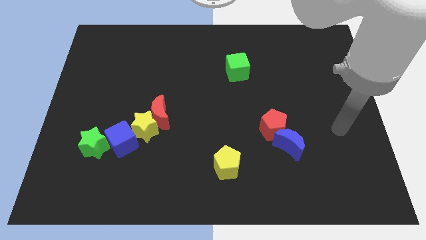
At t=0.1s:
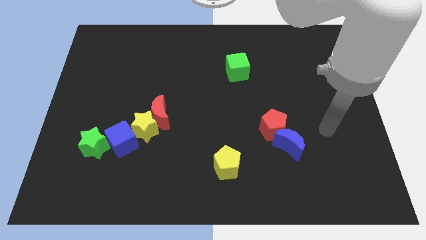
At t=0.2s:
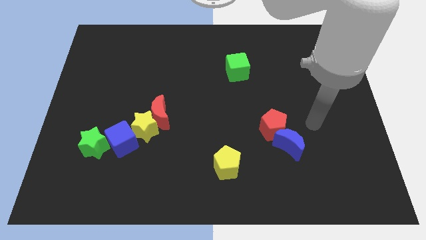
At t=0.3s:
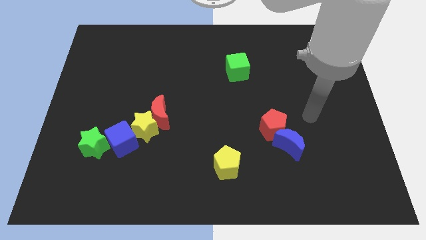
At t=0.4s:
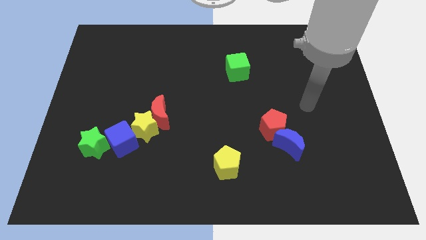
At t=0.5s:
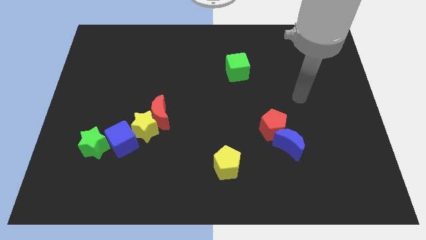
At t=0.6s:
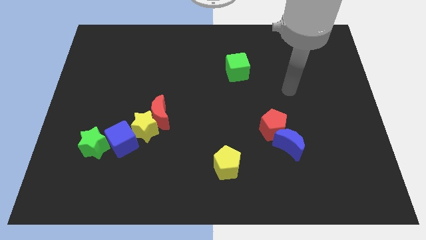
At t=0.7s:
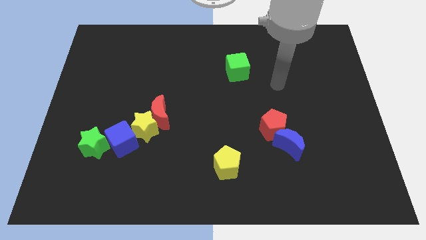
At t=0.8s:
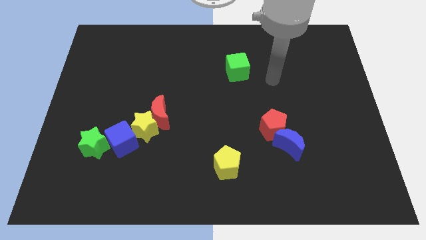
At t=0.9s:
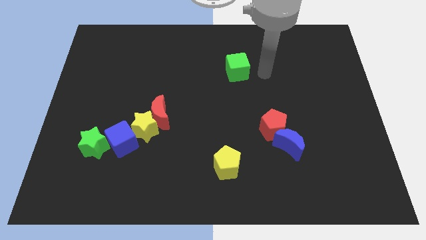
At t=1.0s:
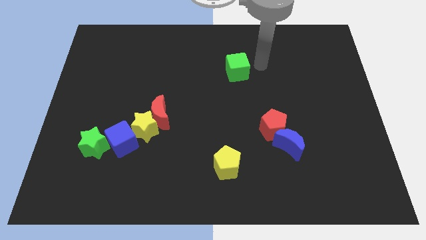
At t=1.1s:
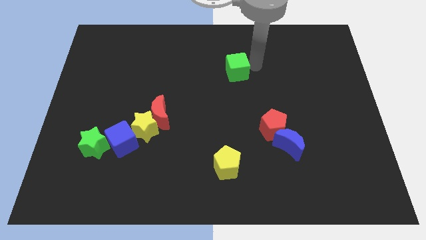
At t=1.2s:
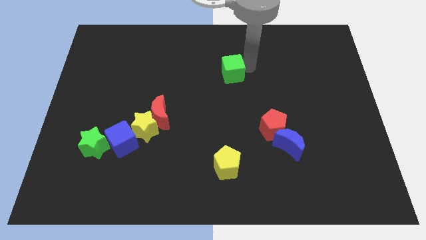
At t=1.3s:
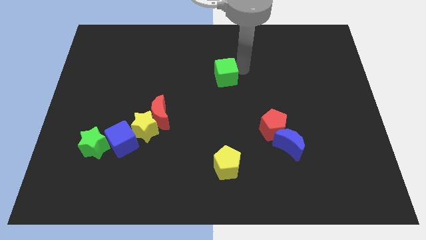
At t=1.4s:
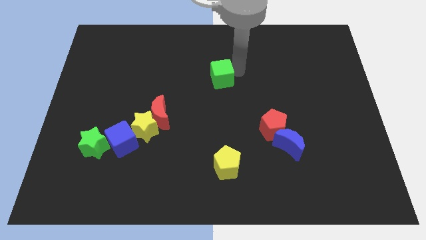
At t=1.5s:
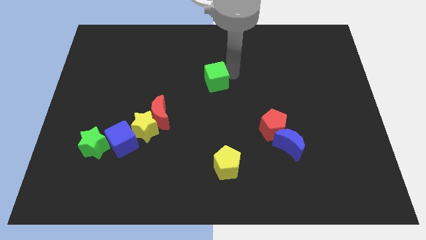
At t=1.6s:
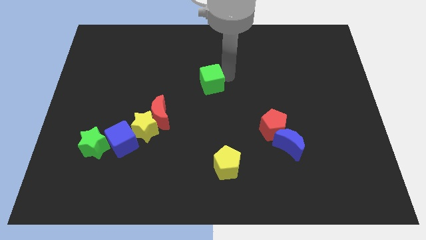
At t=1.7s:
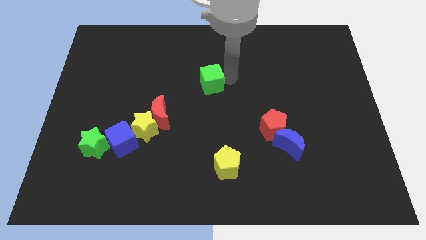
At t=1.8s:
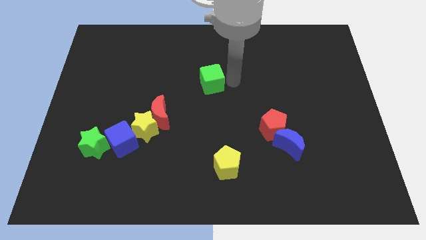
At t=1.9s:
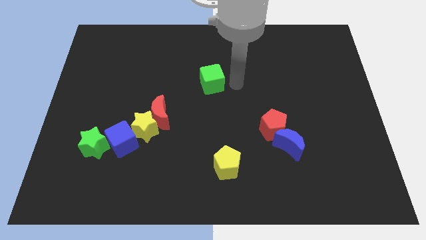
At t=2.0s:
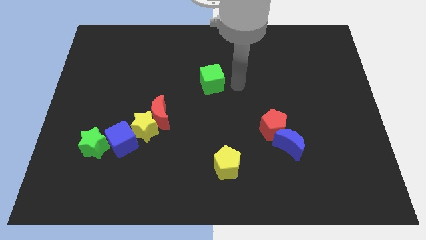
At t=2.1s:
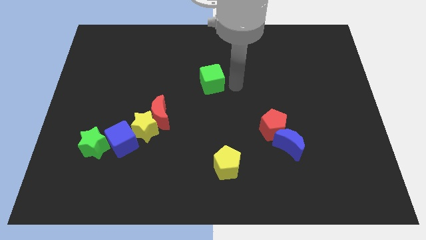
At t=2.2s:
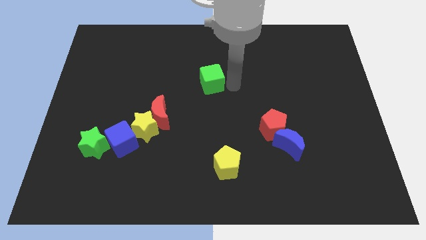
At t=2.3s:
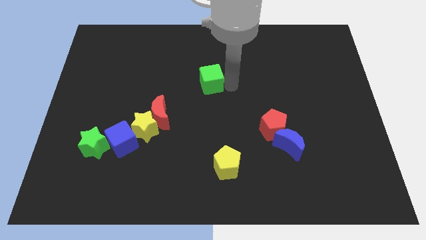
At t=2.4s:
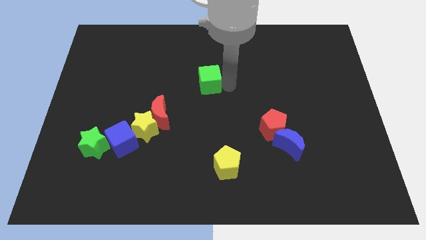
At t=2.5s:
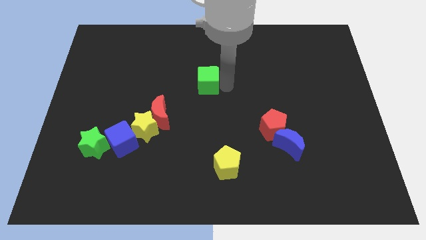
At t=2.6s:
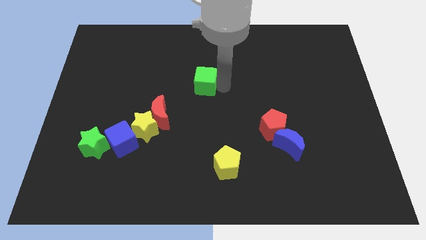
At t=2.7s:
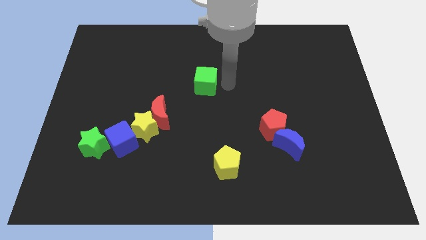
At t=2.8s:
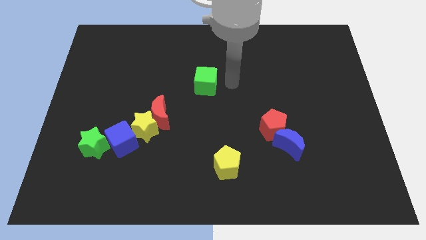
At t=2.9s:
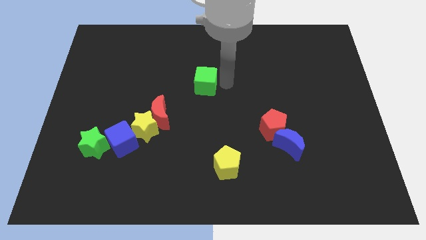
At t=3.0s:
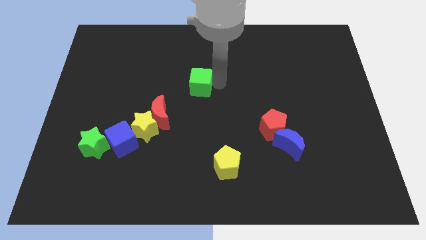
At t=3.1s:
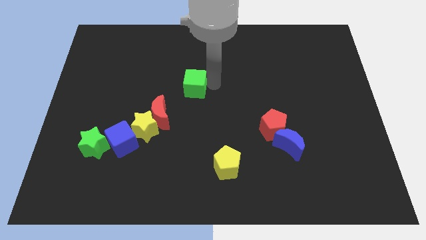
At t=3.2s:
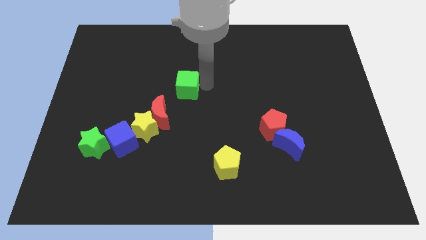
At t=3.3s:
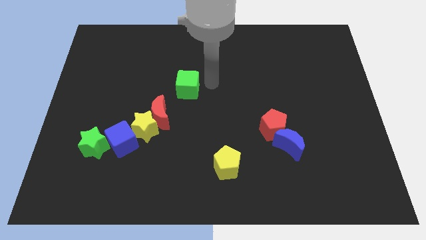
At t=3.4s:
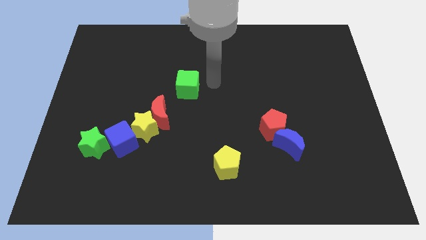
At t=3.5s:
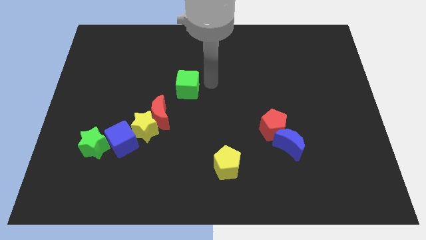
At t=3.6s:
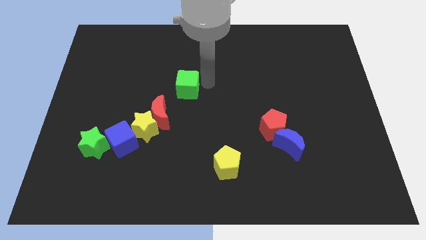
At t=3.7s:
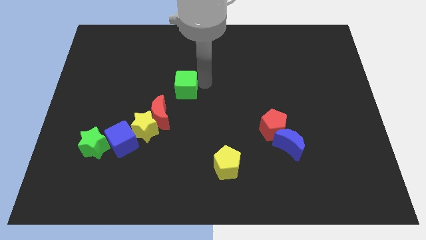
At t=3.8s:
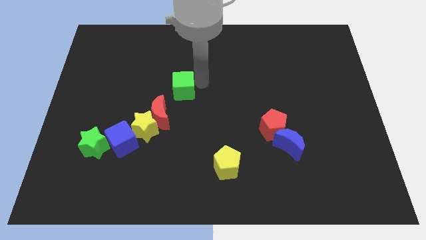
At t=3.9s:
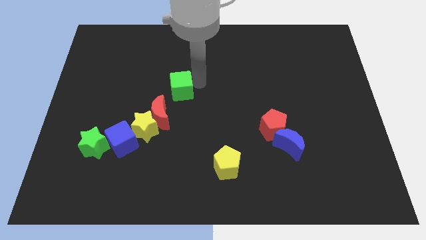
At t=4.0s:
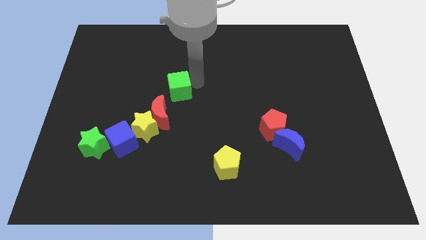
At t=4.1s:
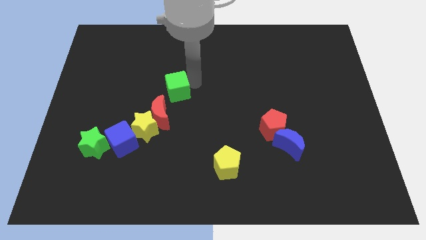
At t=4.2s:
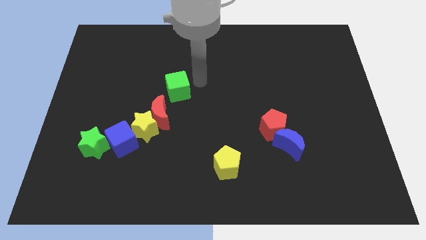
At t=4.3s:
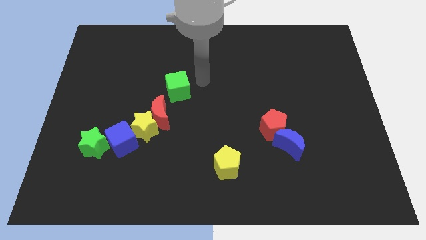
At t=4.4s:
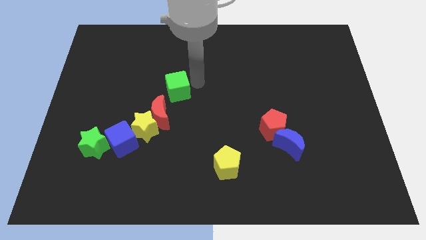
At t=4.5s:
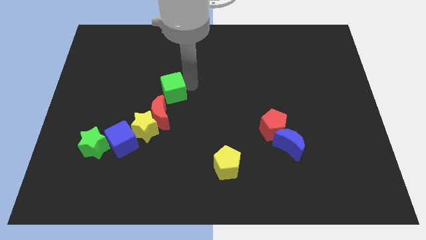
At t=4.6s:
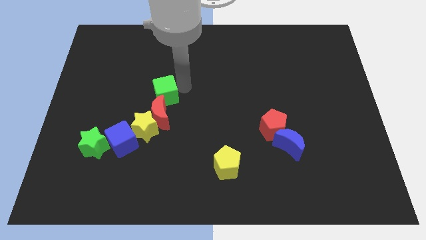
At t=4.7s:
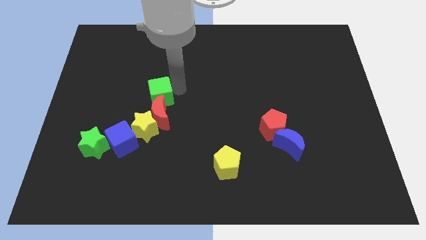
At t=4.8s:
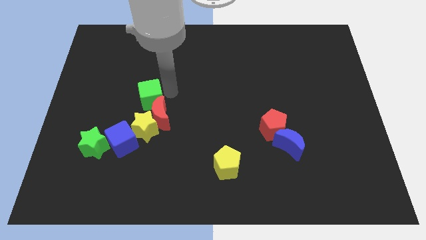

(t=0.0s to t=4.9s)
put the green cube to the top side of the blue cube

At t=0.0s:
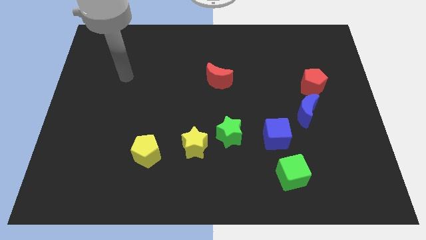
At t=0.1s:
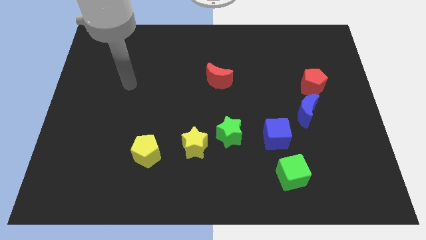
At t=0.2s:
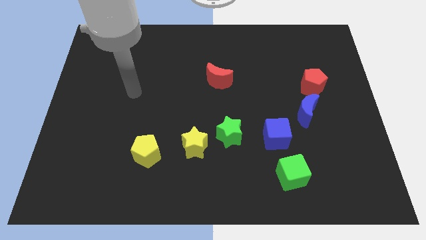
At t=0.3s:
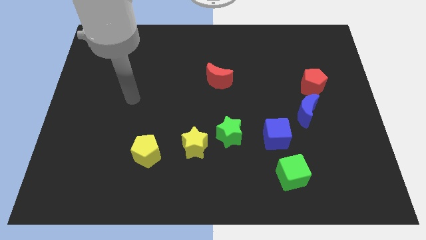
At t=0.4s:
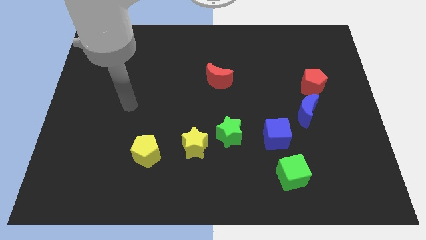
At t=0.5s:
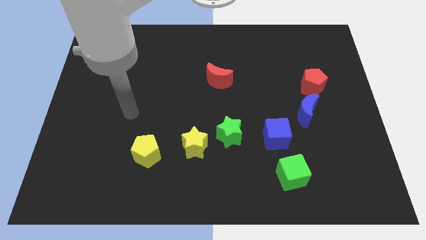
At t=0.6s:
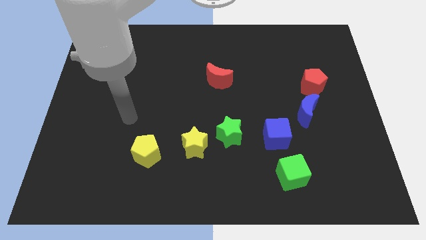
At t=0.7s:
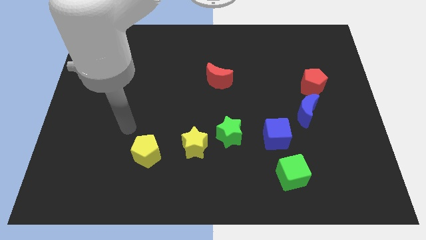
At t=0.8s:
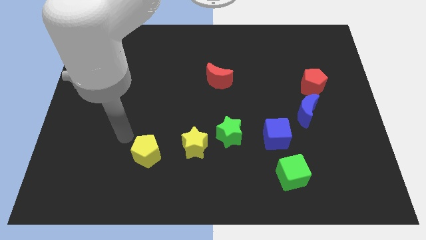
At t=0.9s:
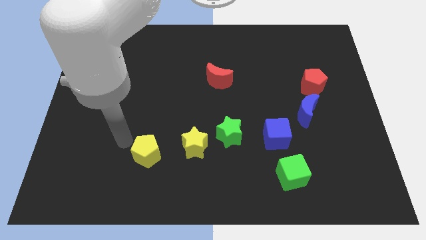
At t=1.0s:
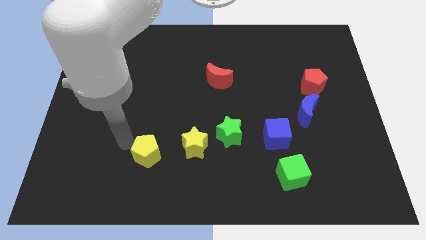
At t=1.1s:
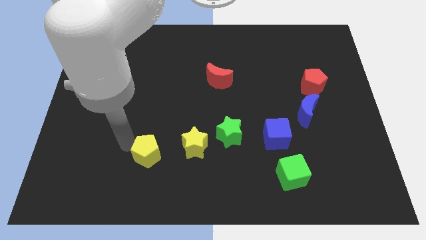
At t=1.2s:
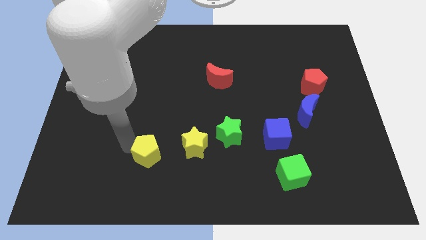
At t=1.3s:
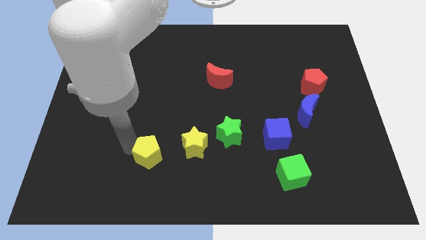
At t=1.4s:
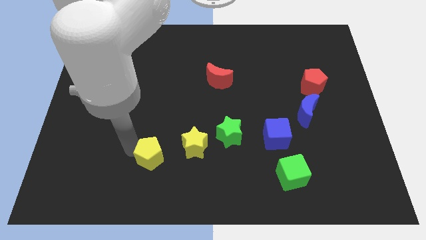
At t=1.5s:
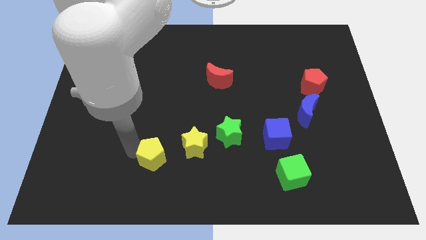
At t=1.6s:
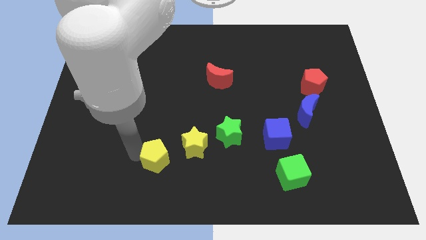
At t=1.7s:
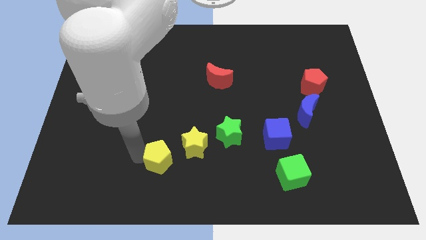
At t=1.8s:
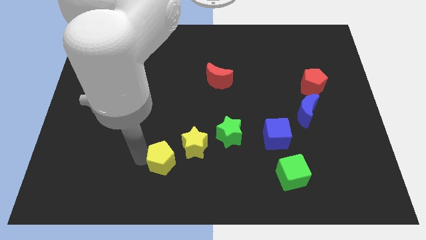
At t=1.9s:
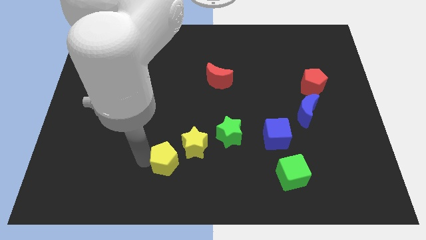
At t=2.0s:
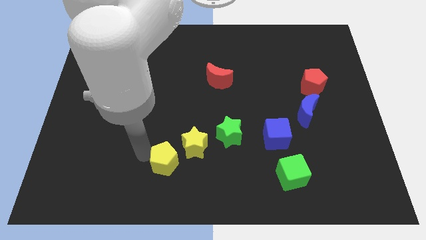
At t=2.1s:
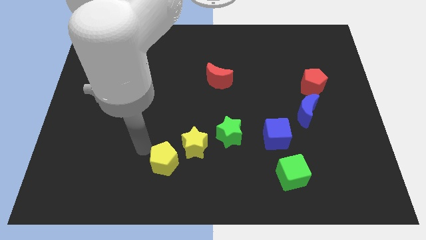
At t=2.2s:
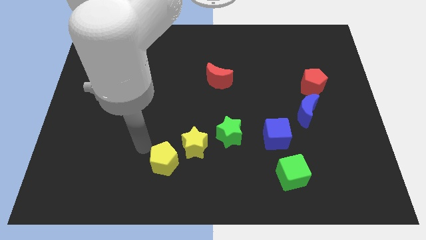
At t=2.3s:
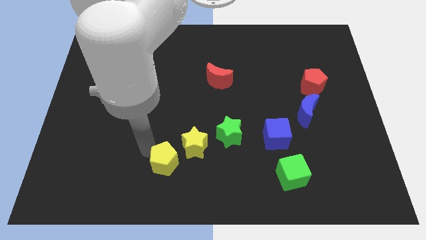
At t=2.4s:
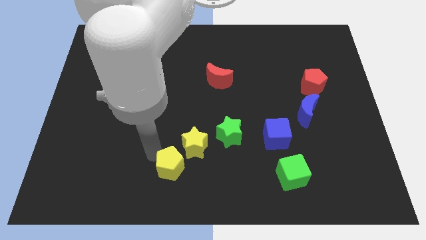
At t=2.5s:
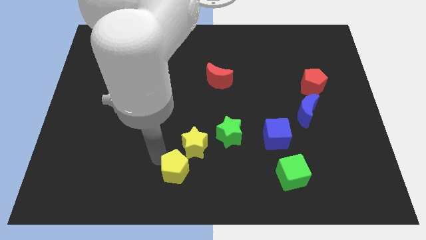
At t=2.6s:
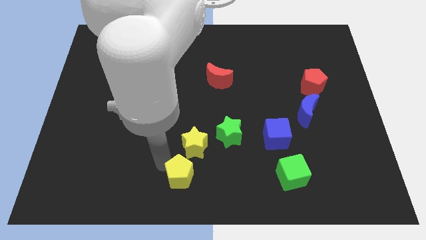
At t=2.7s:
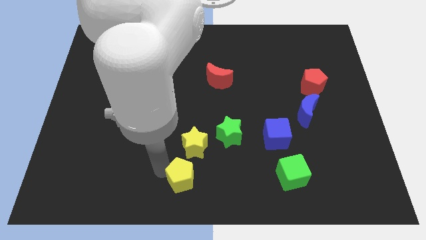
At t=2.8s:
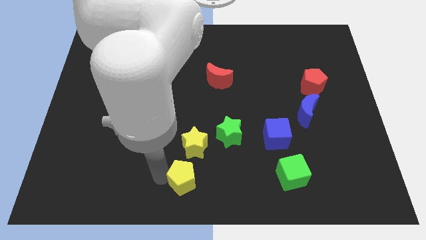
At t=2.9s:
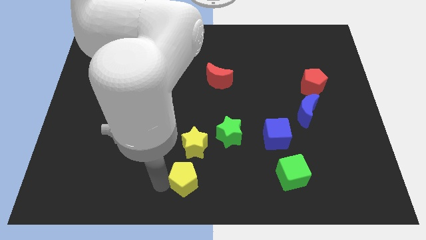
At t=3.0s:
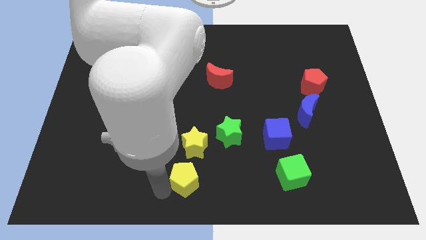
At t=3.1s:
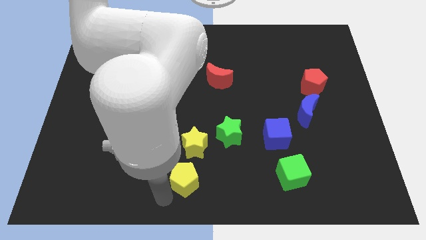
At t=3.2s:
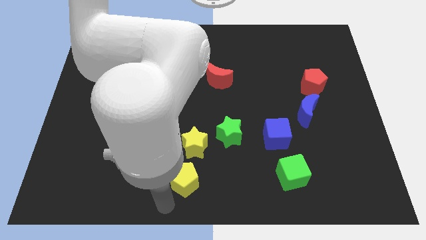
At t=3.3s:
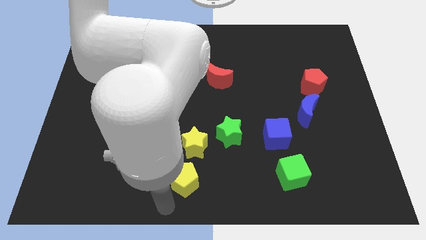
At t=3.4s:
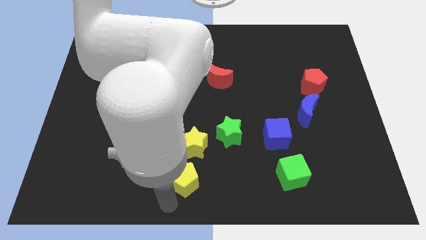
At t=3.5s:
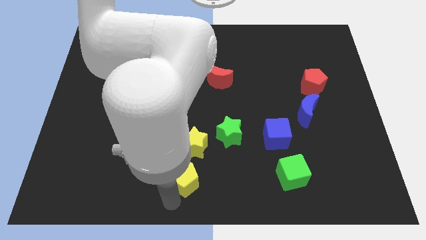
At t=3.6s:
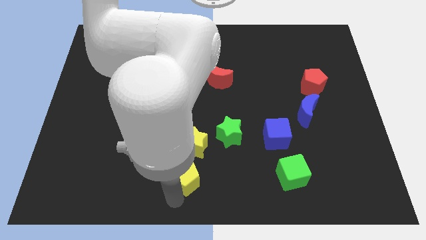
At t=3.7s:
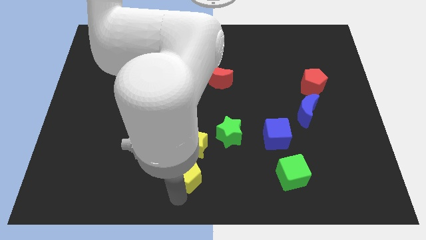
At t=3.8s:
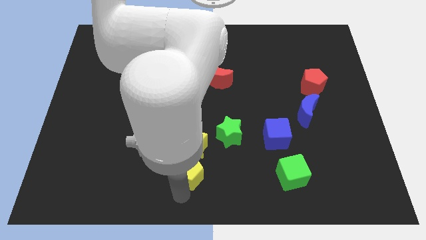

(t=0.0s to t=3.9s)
put the yellow pentagon diagonally down and to the left of the green star
